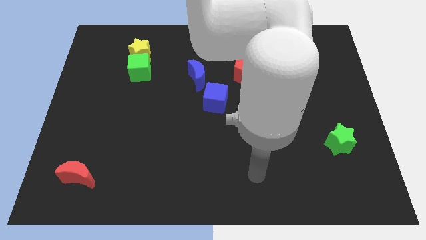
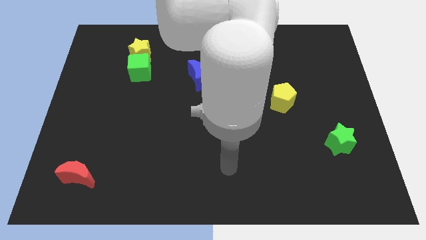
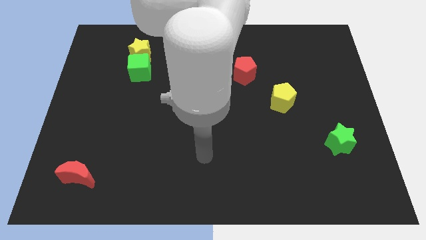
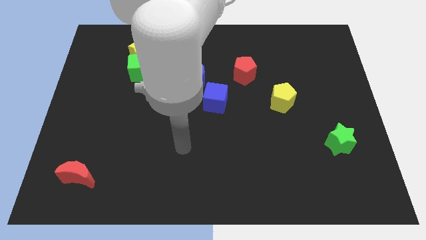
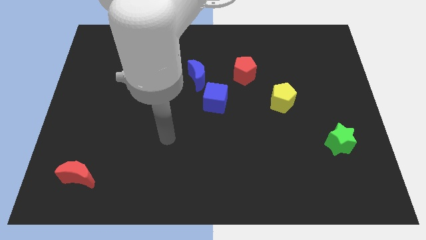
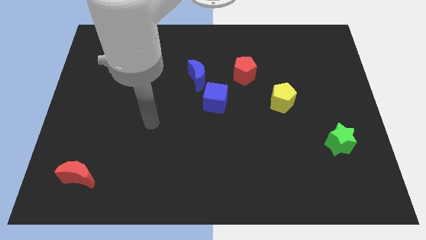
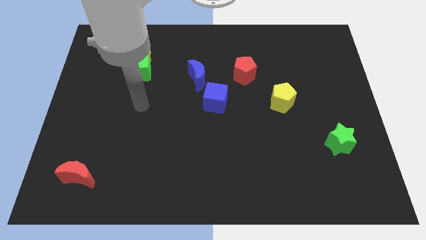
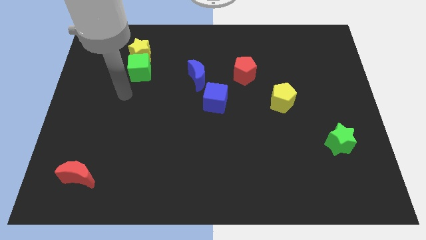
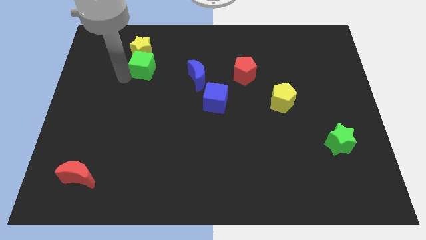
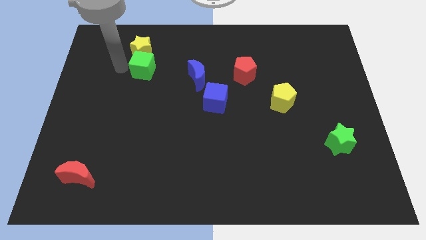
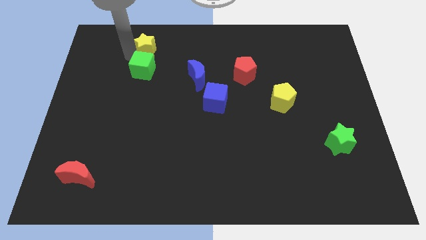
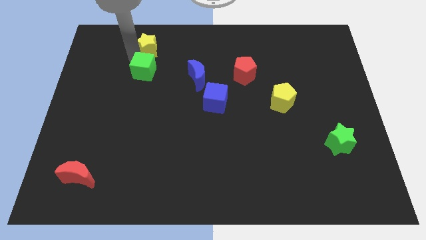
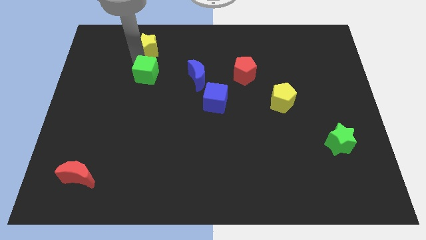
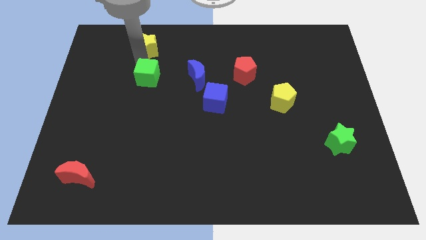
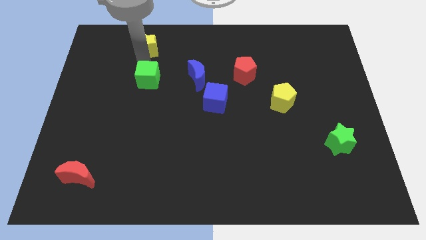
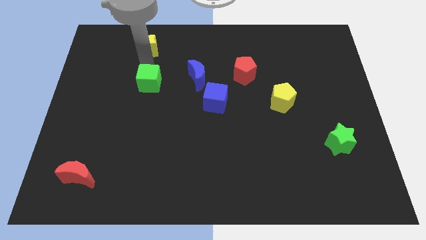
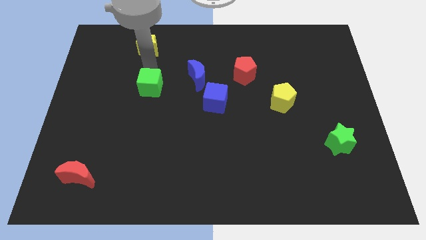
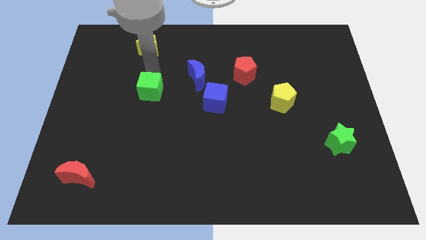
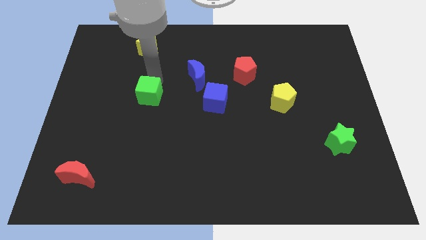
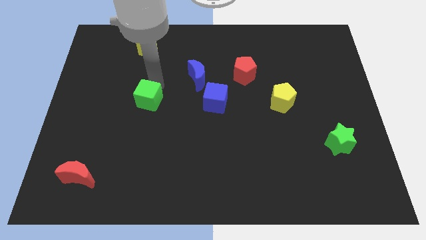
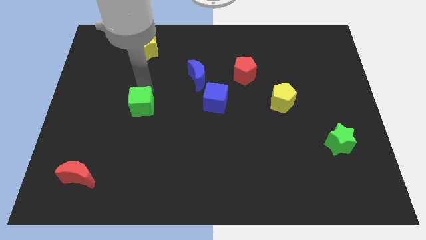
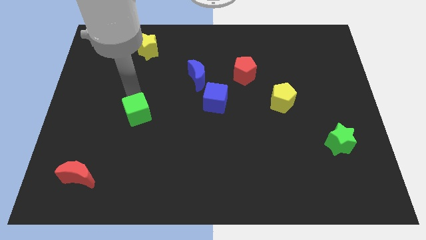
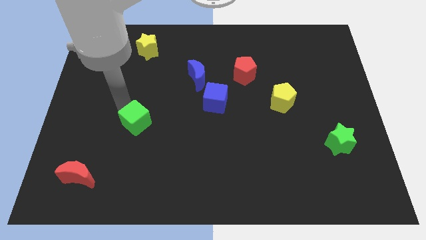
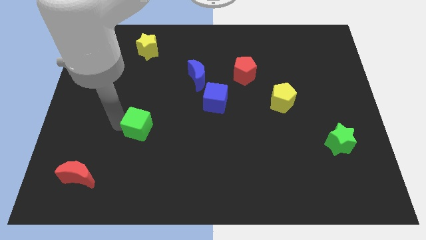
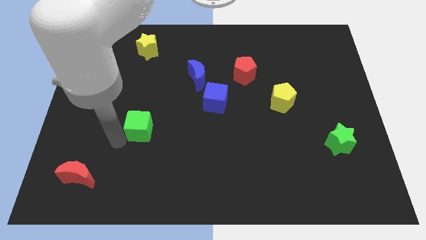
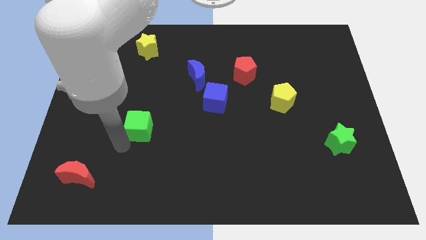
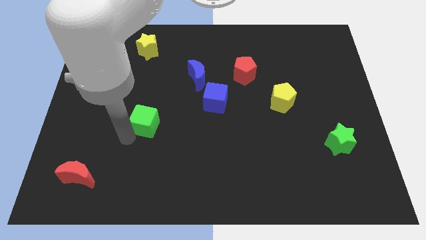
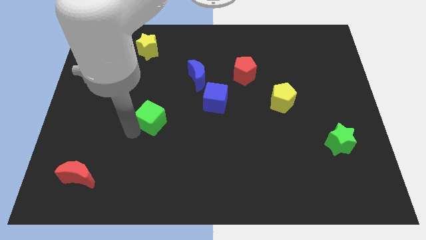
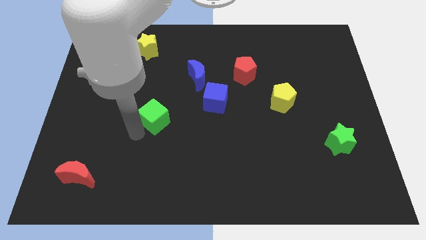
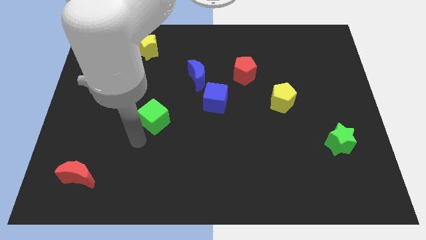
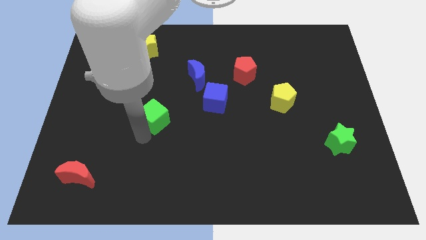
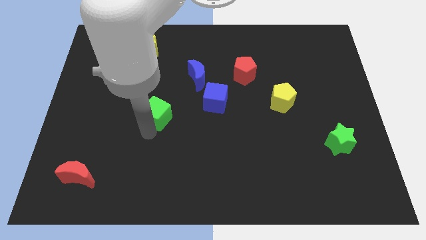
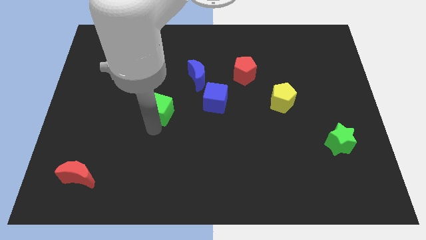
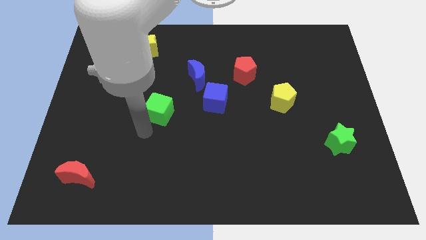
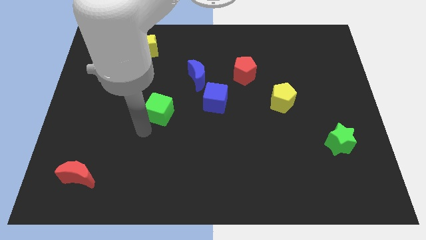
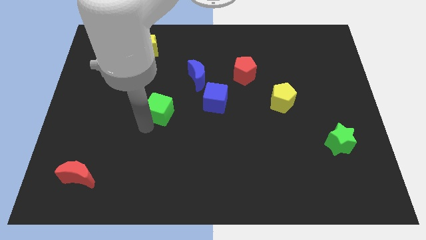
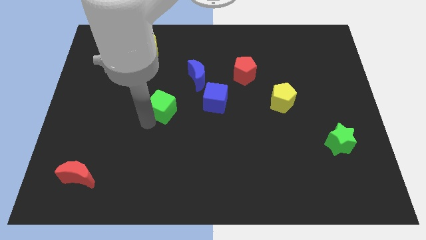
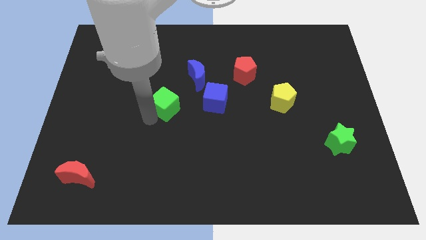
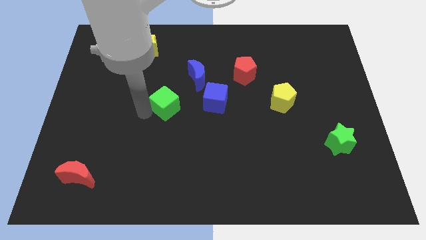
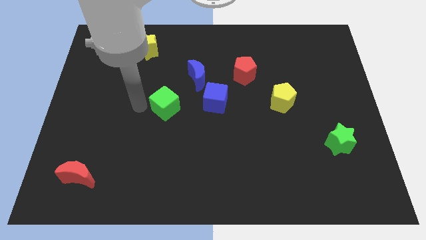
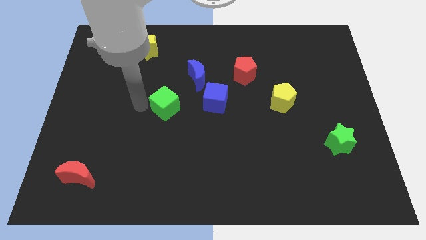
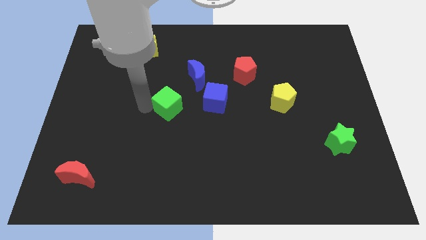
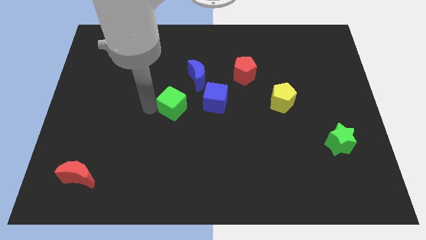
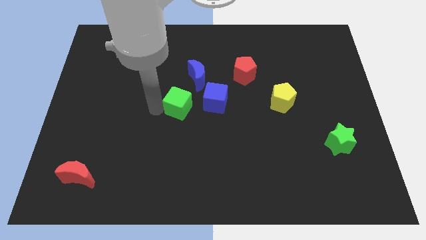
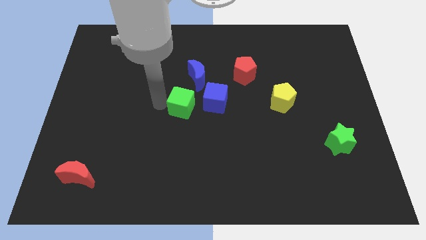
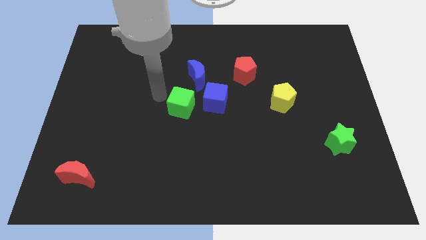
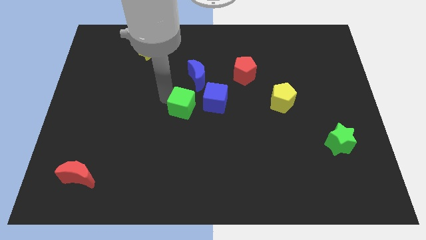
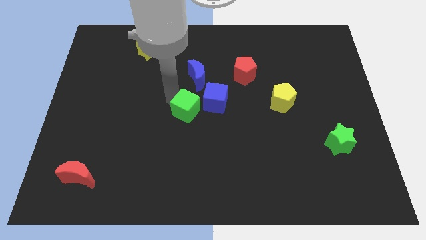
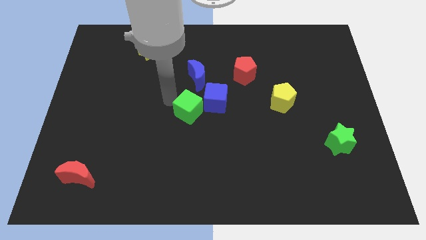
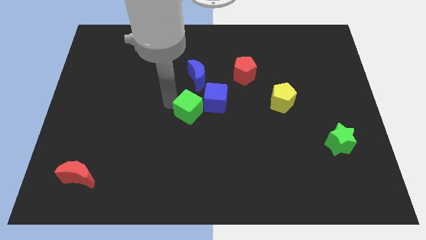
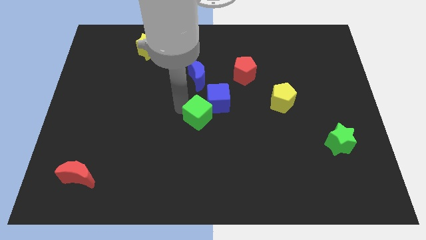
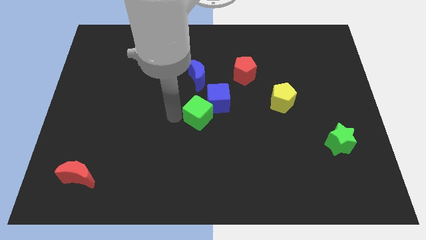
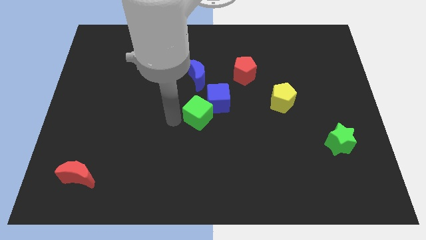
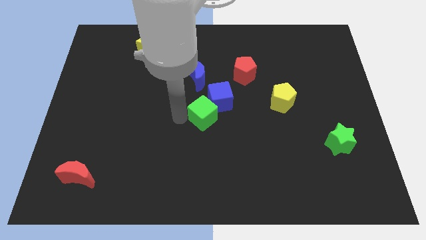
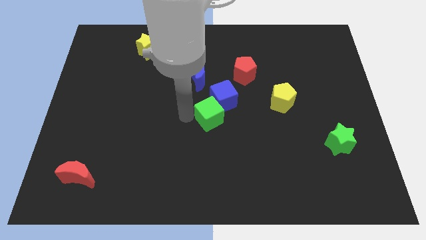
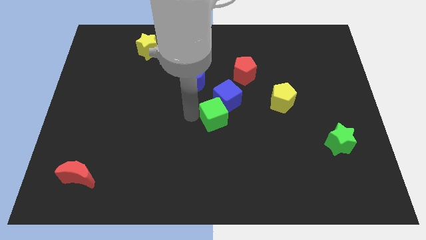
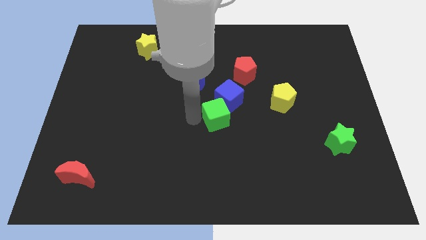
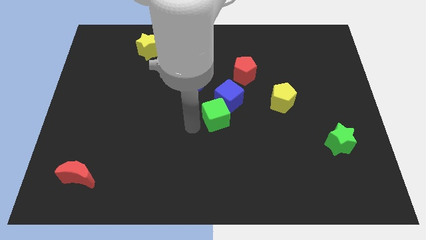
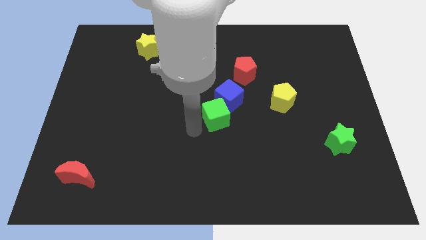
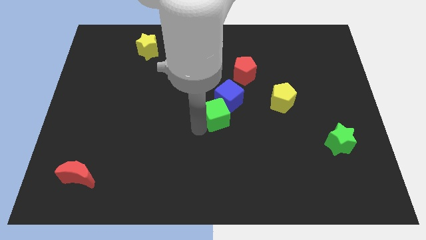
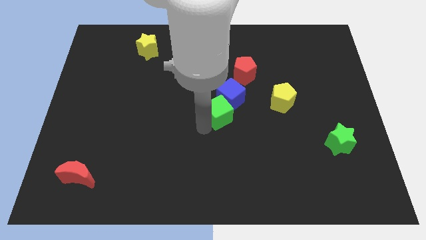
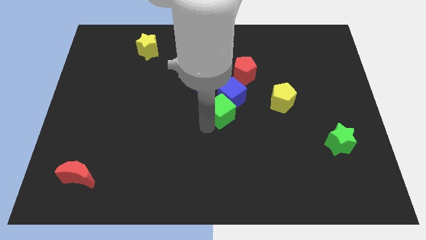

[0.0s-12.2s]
push the green cube to the left side of the yellow pentagon
